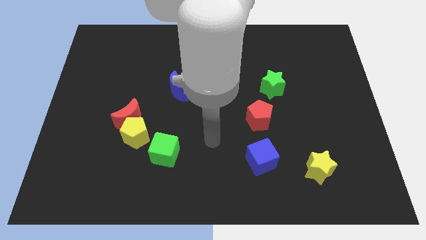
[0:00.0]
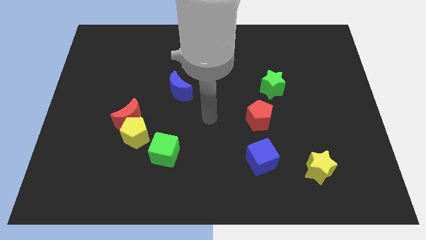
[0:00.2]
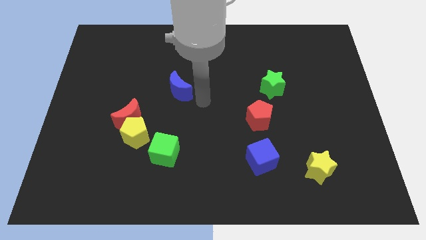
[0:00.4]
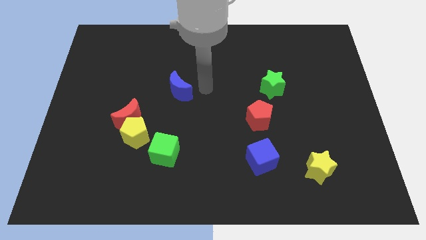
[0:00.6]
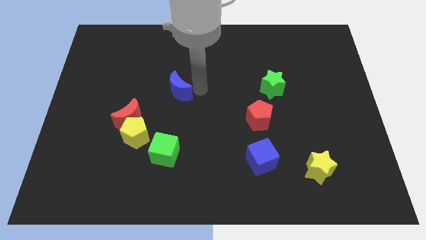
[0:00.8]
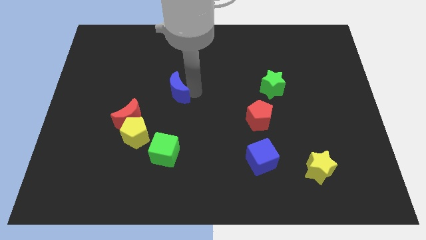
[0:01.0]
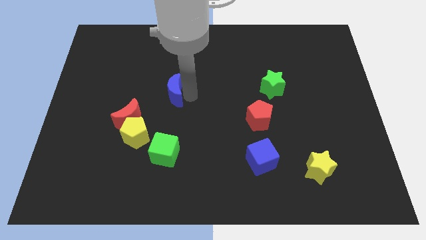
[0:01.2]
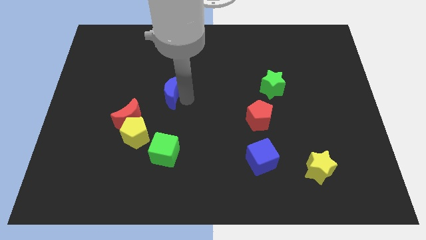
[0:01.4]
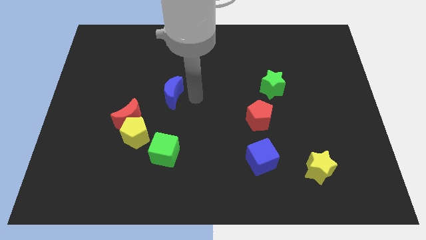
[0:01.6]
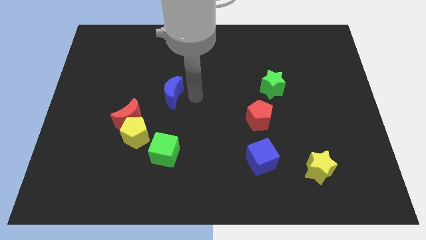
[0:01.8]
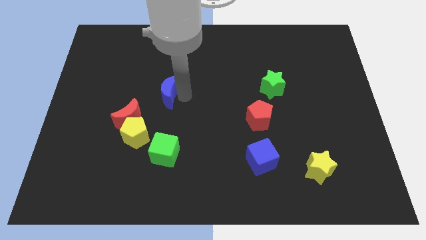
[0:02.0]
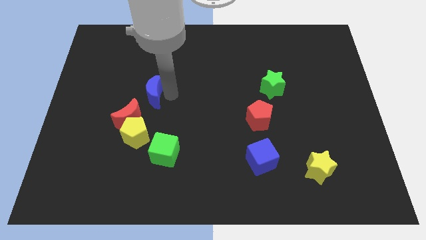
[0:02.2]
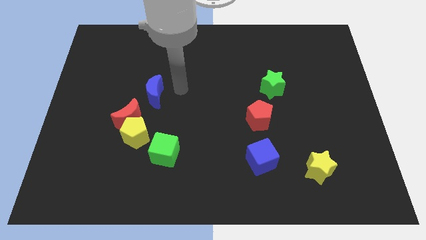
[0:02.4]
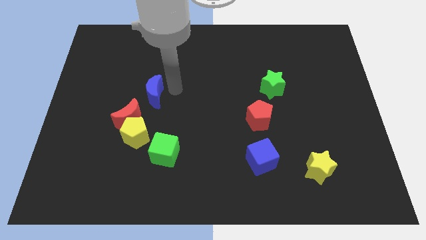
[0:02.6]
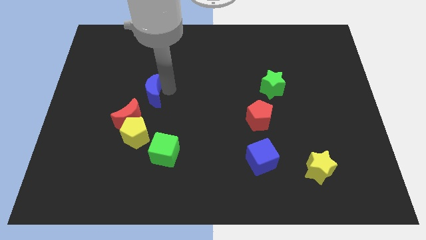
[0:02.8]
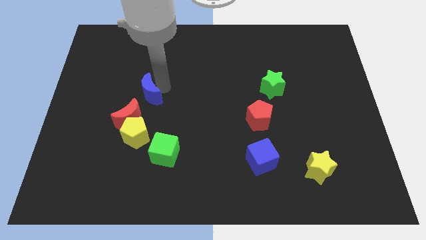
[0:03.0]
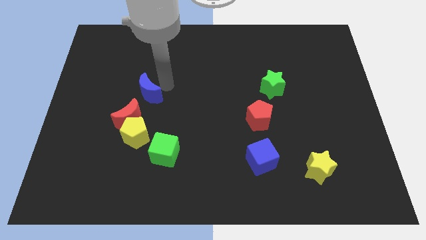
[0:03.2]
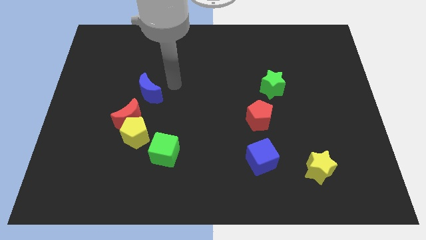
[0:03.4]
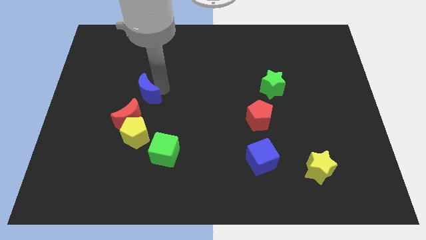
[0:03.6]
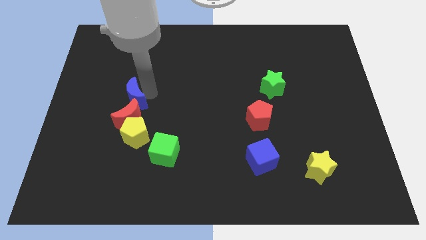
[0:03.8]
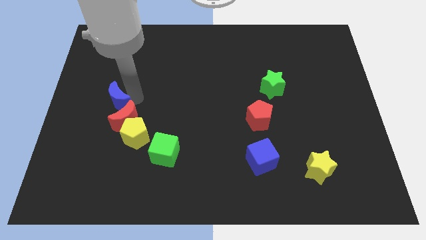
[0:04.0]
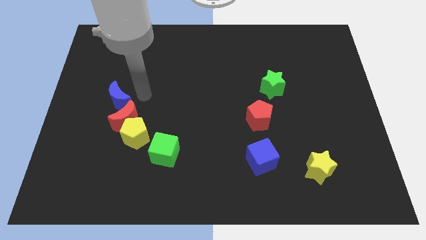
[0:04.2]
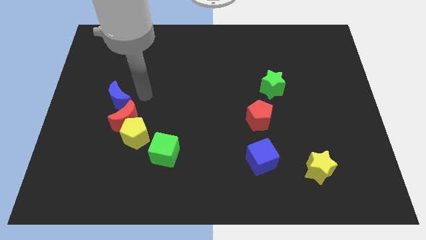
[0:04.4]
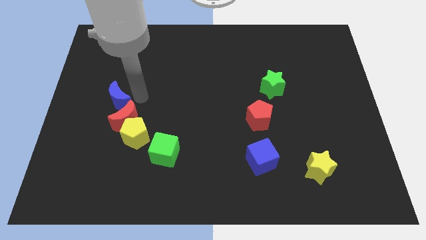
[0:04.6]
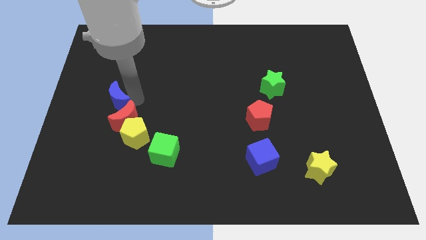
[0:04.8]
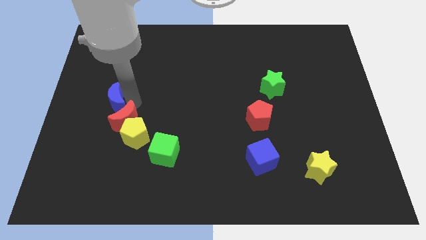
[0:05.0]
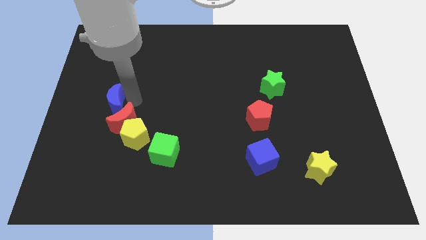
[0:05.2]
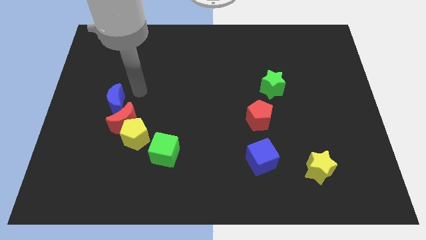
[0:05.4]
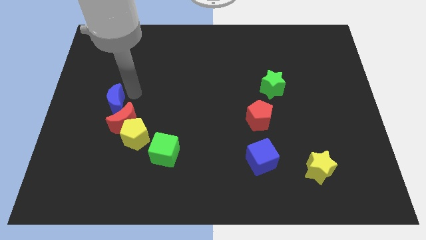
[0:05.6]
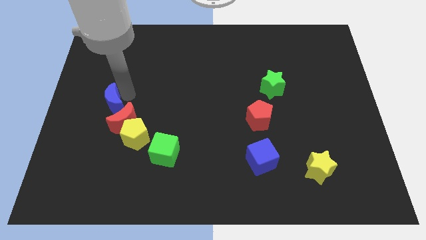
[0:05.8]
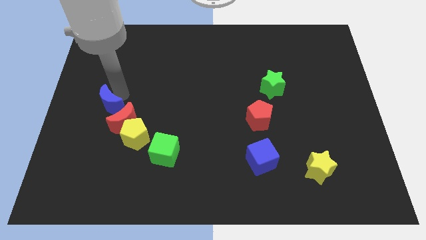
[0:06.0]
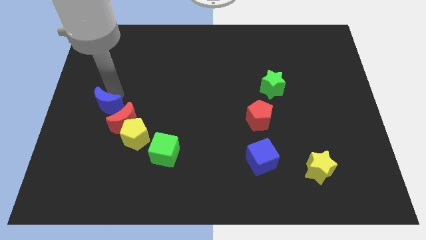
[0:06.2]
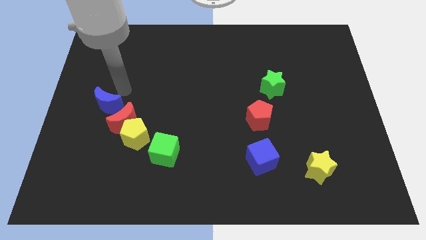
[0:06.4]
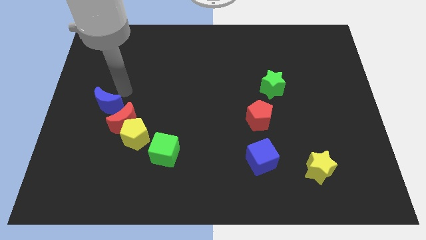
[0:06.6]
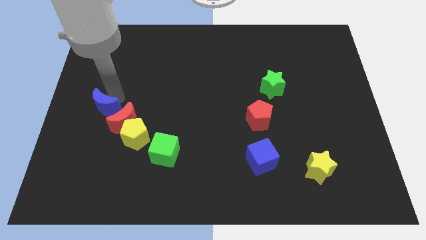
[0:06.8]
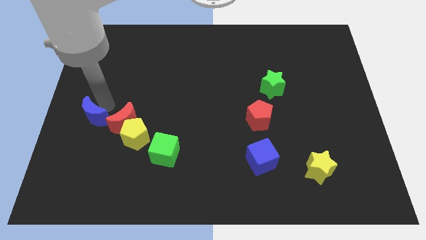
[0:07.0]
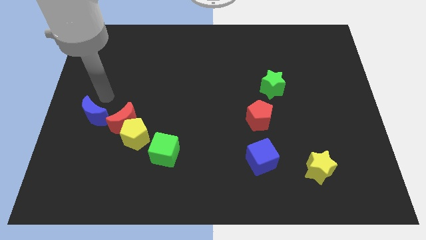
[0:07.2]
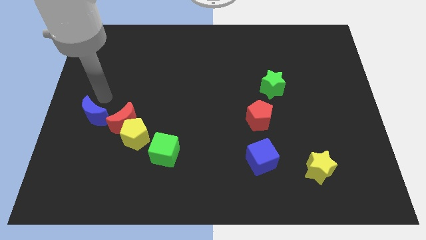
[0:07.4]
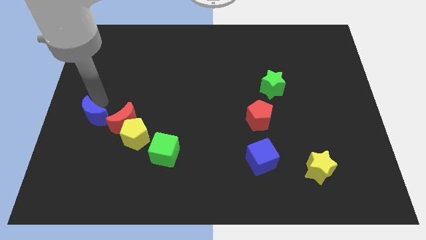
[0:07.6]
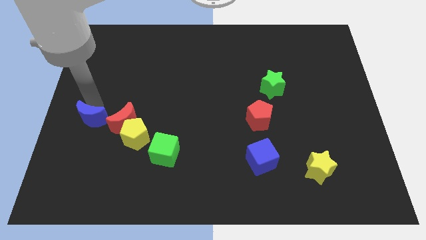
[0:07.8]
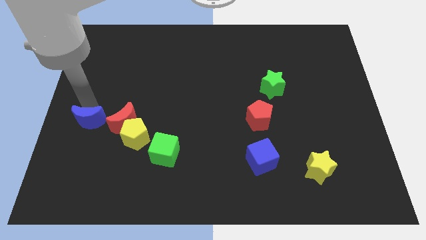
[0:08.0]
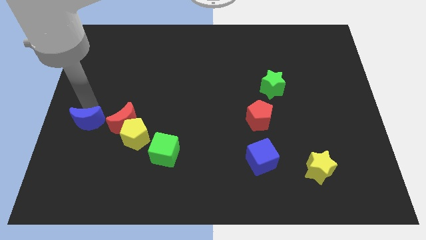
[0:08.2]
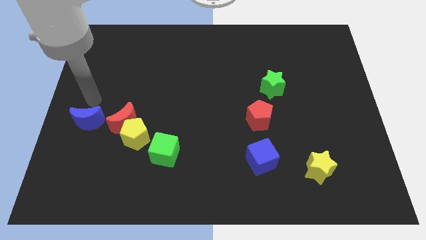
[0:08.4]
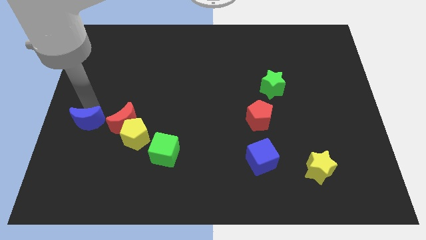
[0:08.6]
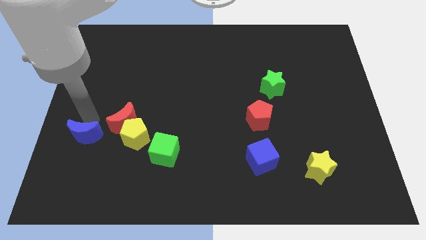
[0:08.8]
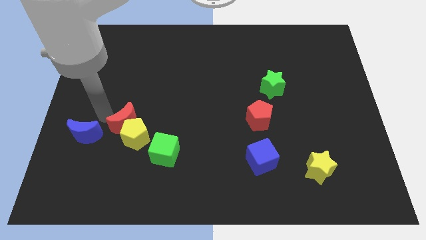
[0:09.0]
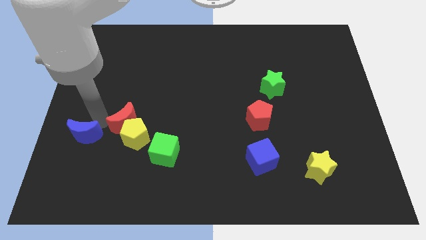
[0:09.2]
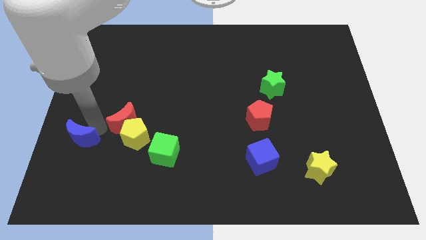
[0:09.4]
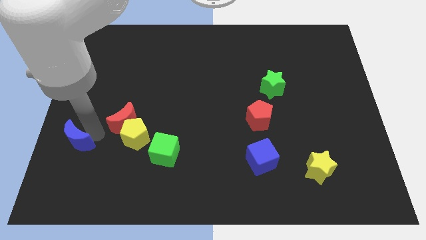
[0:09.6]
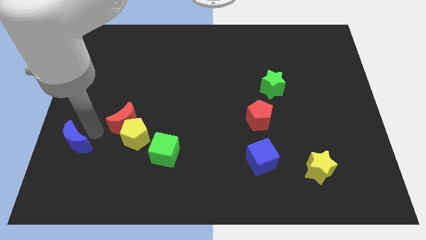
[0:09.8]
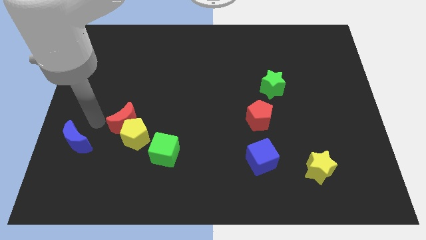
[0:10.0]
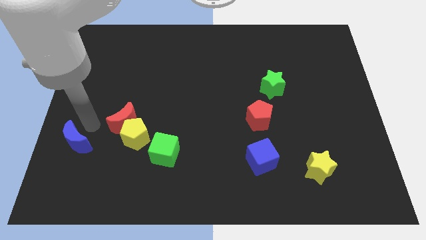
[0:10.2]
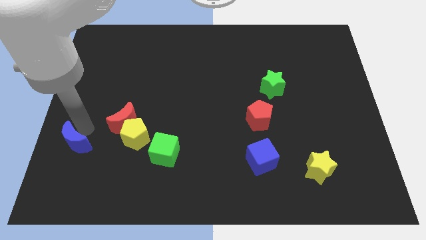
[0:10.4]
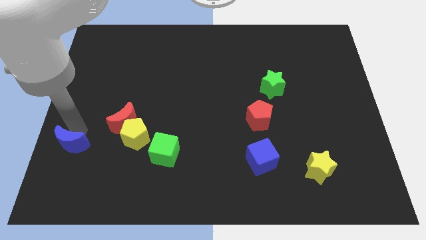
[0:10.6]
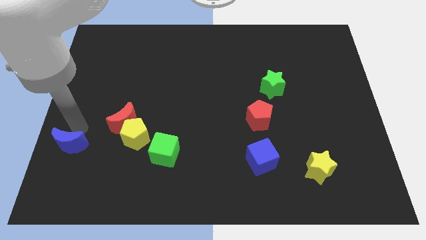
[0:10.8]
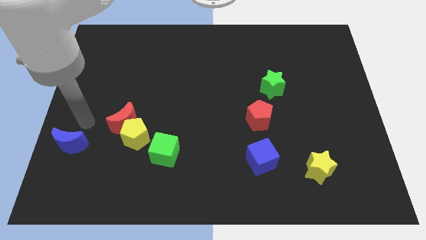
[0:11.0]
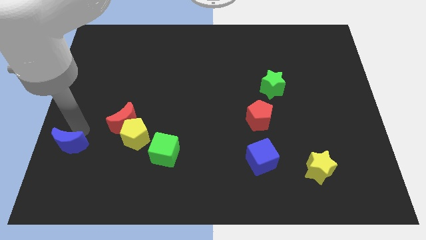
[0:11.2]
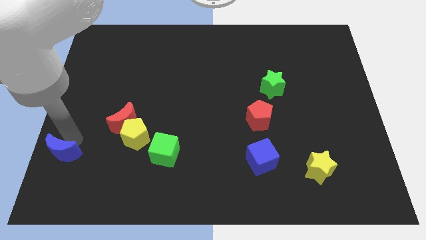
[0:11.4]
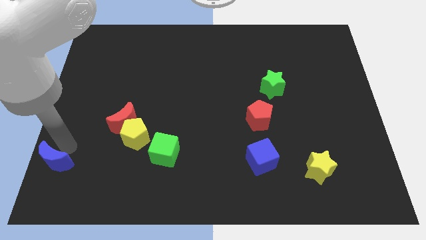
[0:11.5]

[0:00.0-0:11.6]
move the blue moon to the bottom left

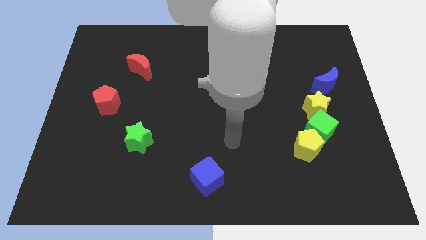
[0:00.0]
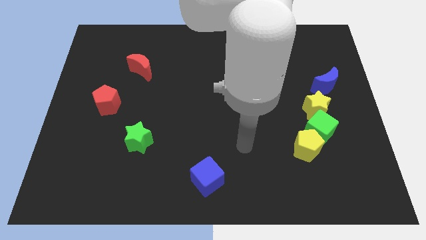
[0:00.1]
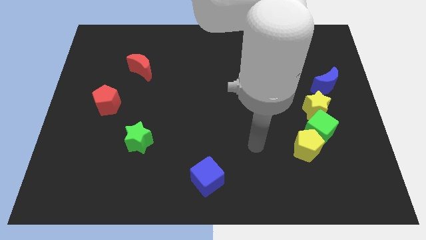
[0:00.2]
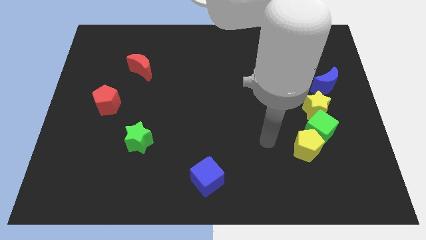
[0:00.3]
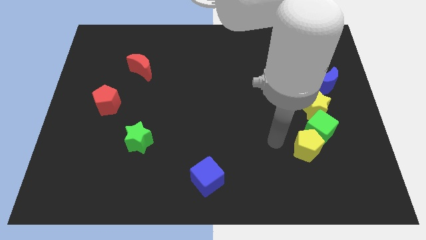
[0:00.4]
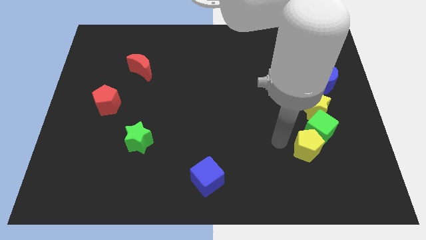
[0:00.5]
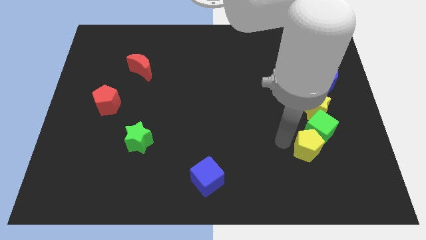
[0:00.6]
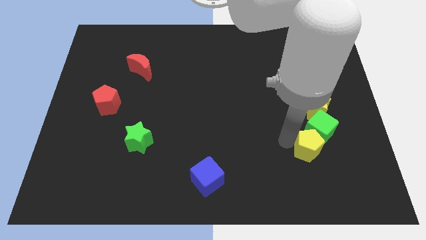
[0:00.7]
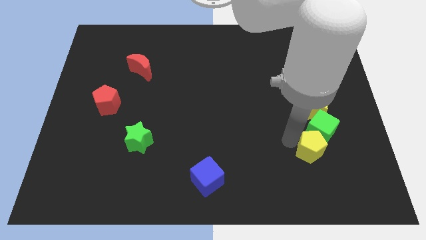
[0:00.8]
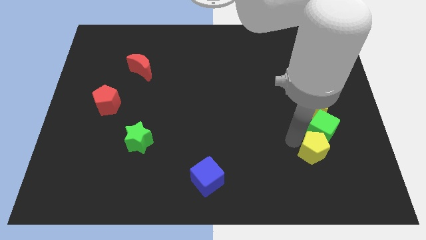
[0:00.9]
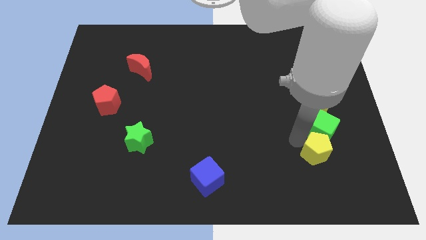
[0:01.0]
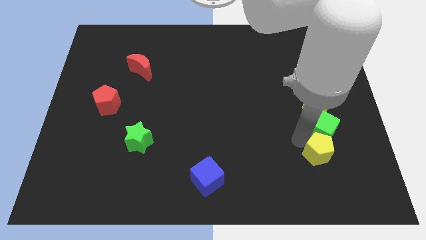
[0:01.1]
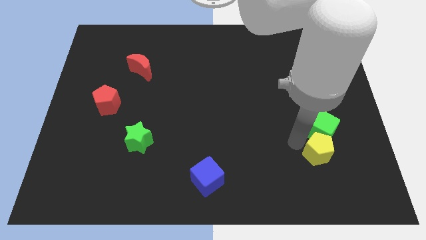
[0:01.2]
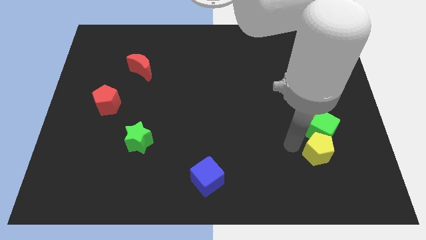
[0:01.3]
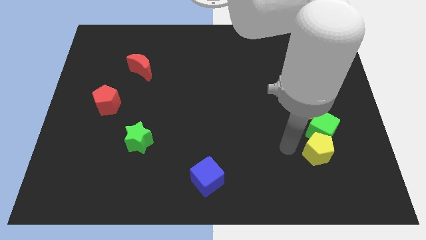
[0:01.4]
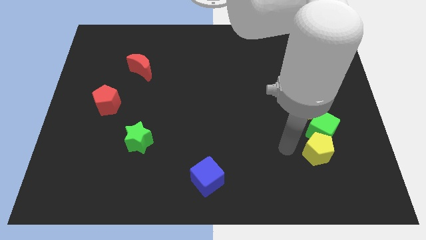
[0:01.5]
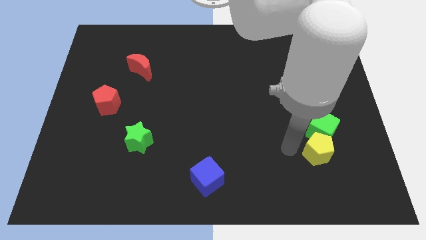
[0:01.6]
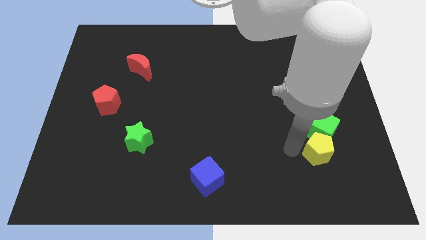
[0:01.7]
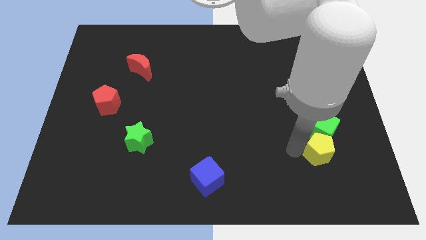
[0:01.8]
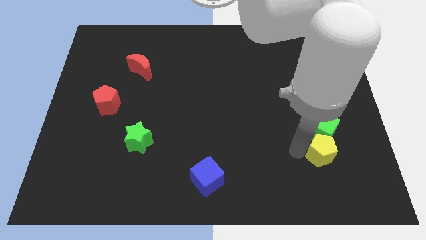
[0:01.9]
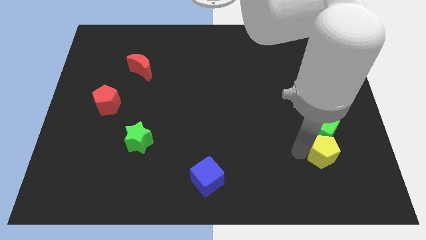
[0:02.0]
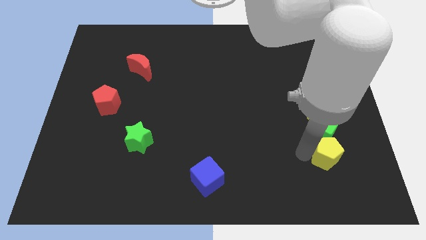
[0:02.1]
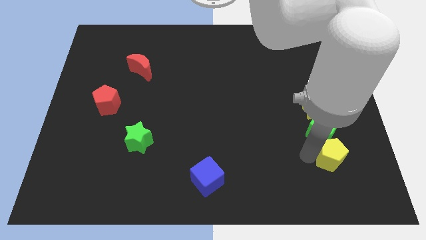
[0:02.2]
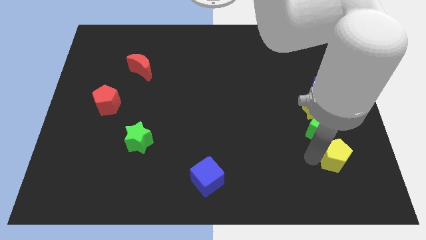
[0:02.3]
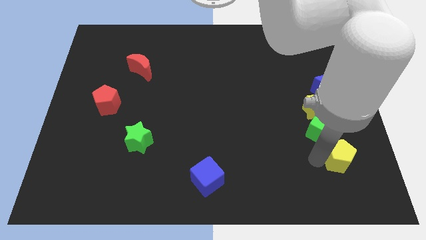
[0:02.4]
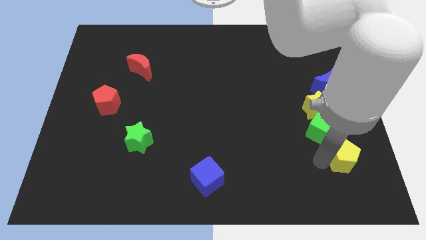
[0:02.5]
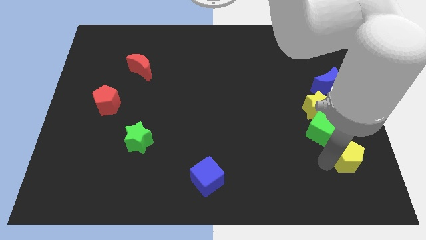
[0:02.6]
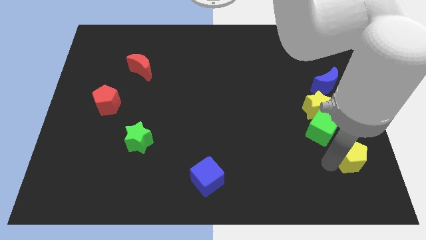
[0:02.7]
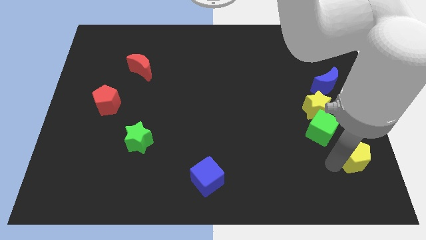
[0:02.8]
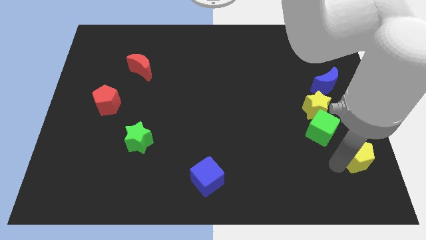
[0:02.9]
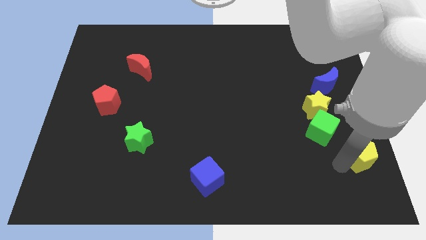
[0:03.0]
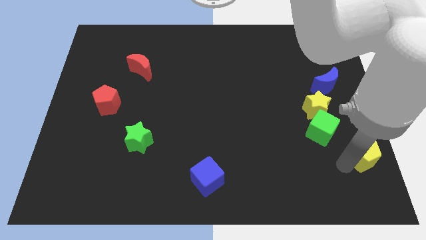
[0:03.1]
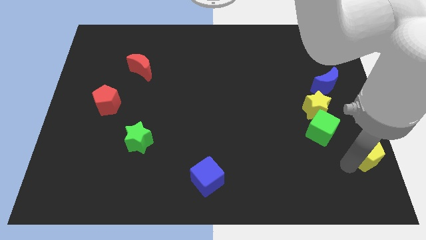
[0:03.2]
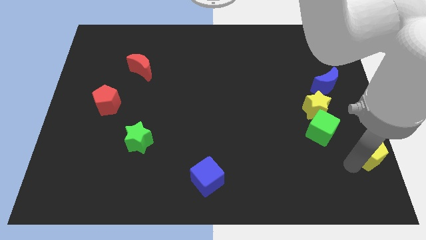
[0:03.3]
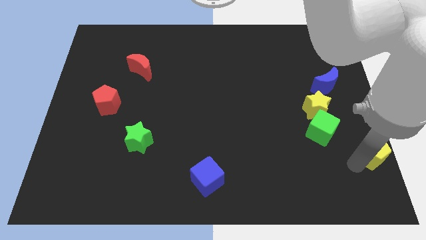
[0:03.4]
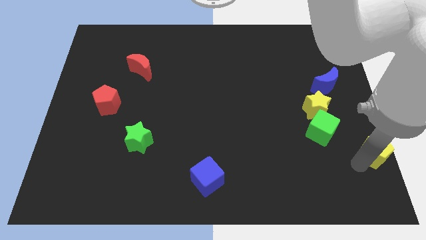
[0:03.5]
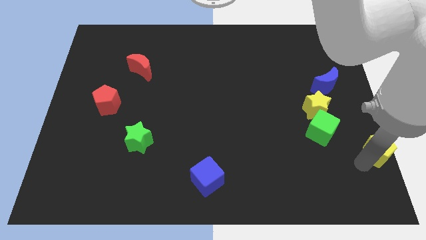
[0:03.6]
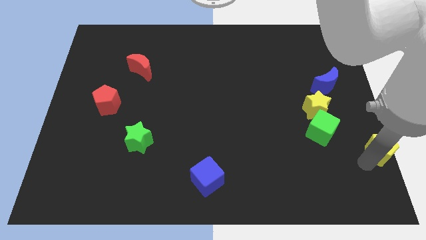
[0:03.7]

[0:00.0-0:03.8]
slide the yellow pentagon to the right side
